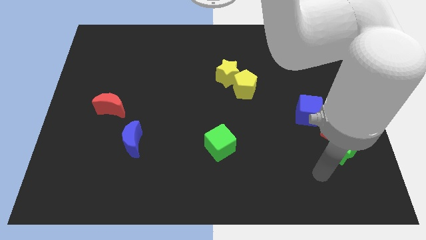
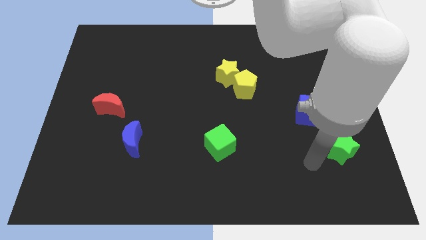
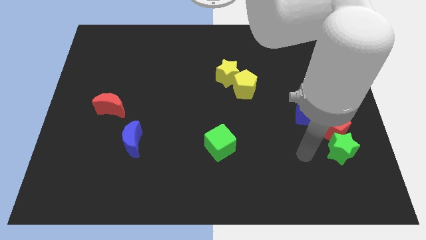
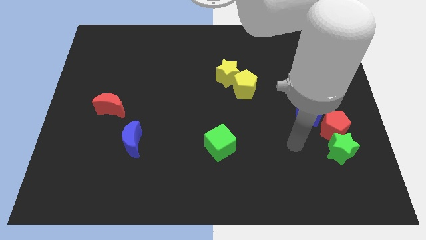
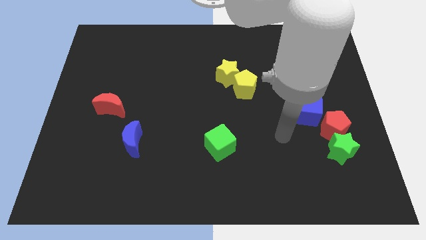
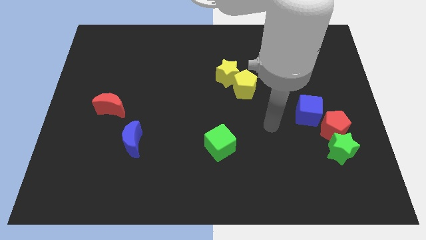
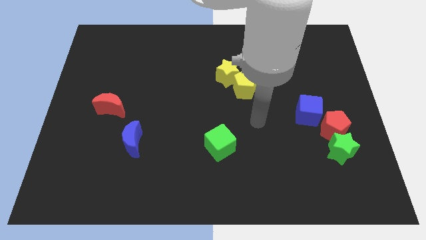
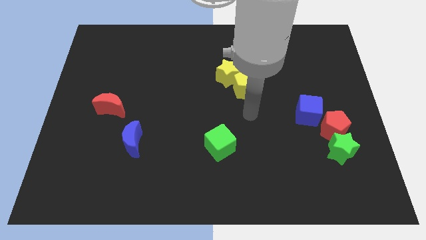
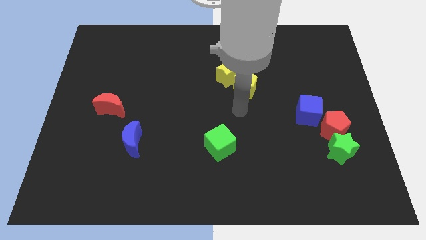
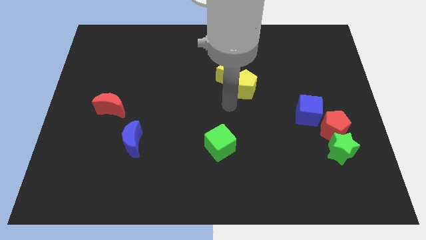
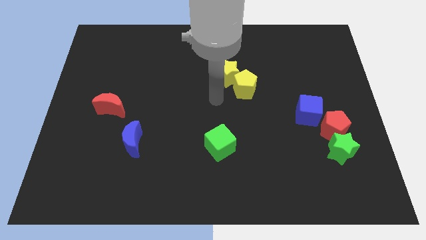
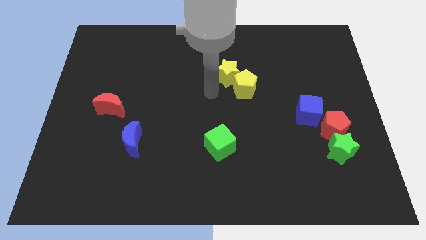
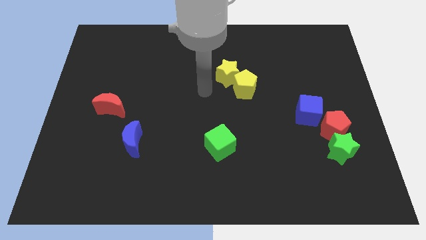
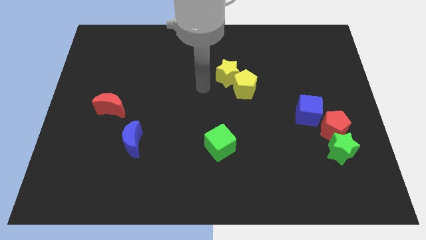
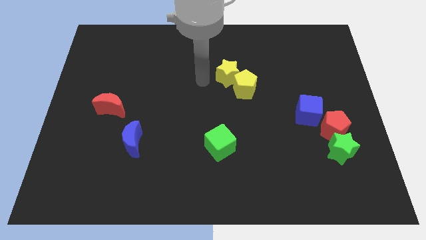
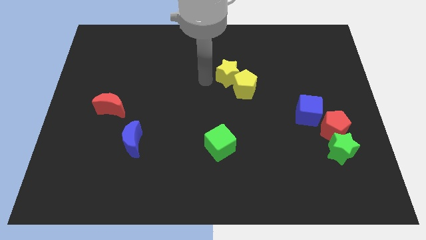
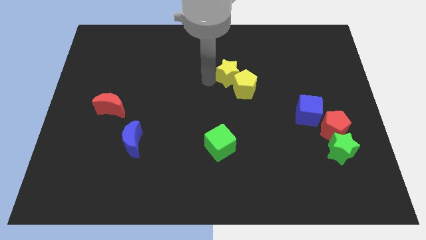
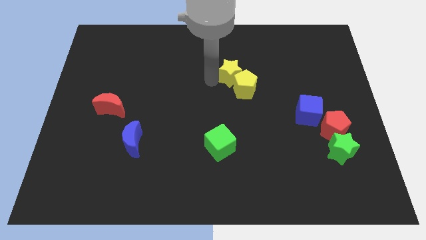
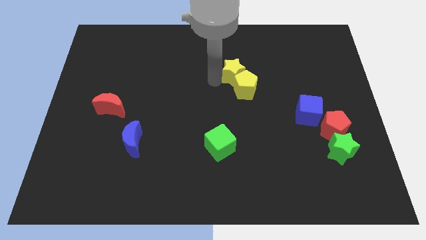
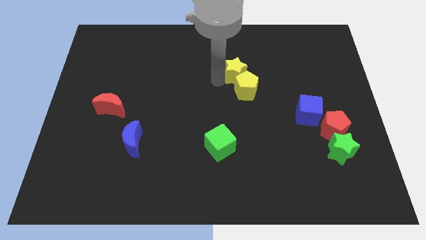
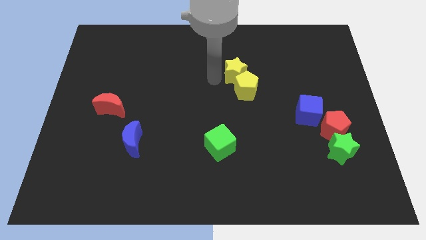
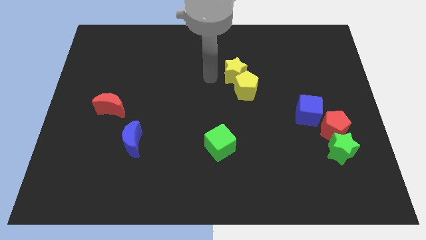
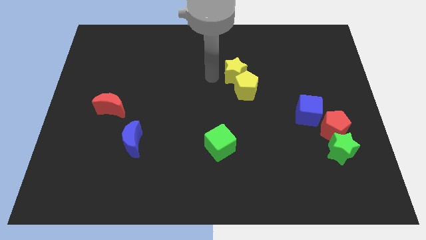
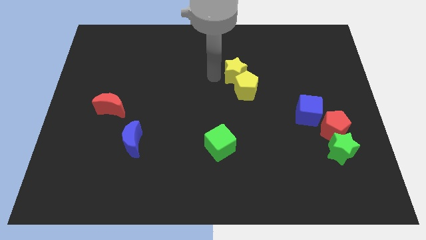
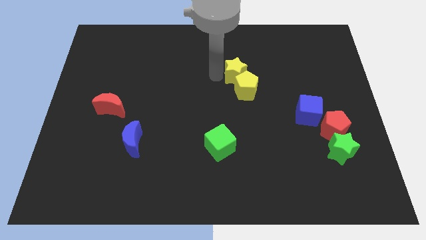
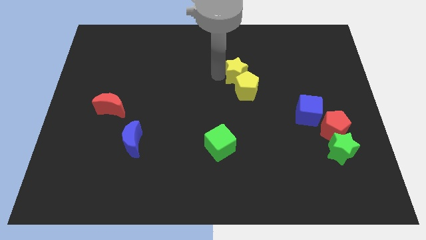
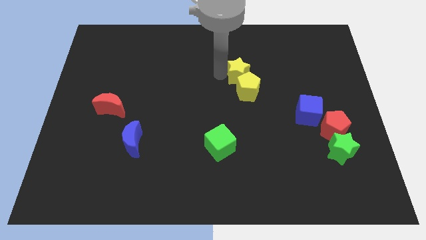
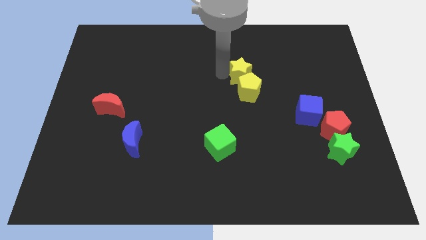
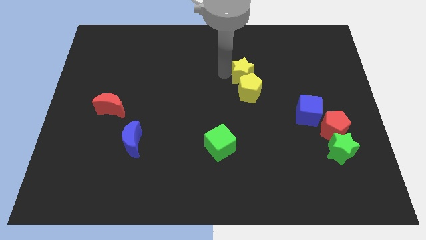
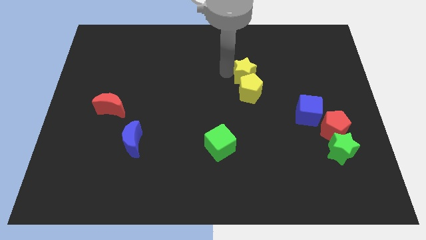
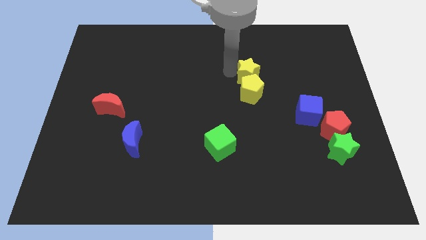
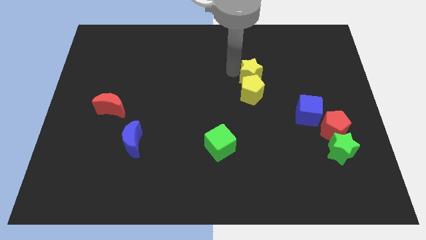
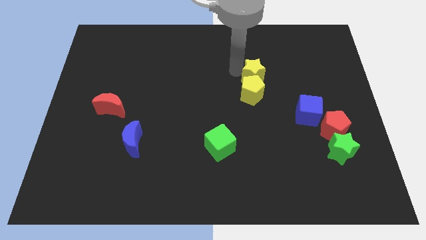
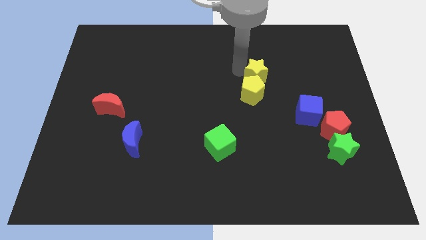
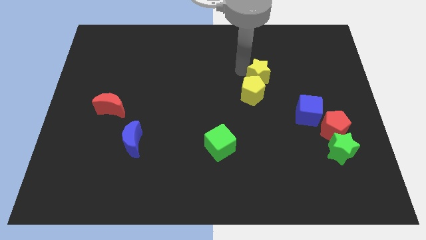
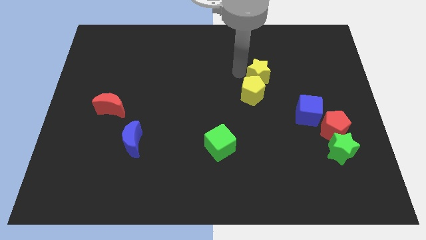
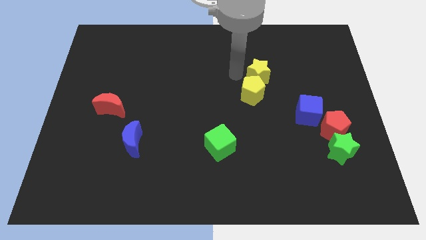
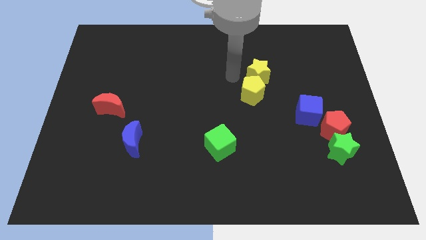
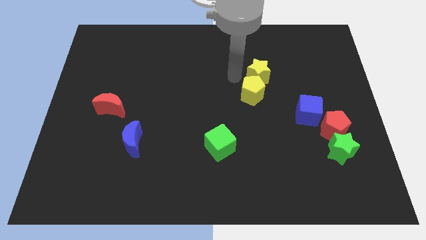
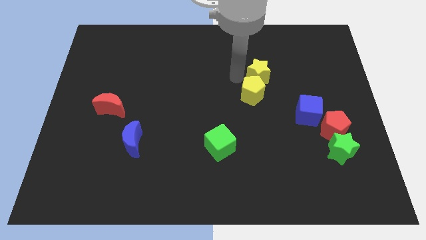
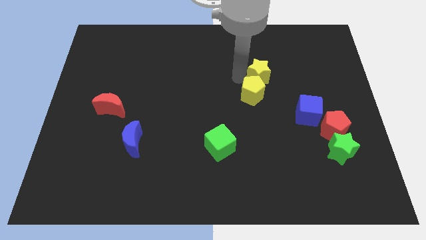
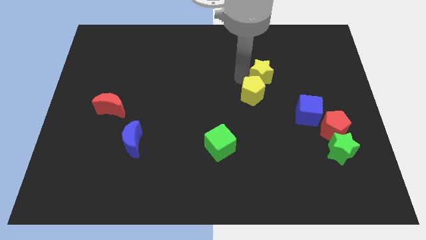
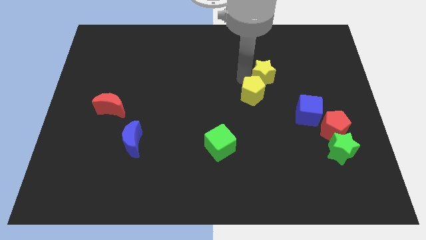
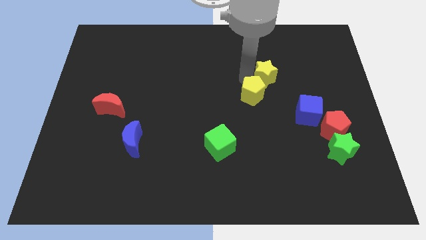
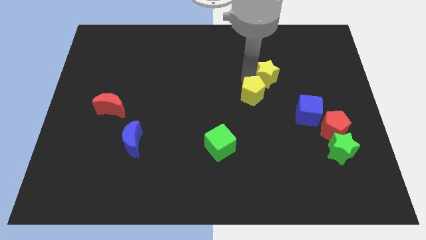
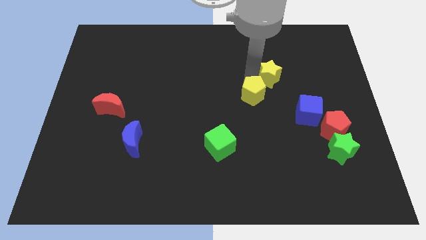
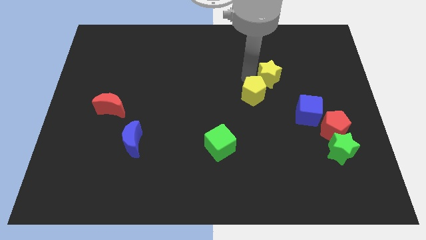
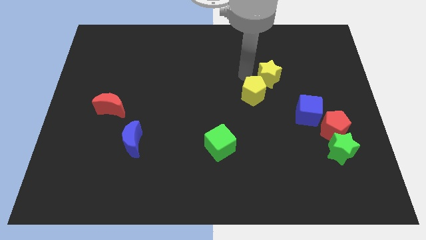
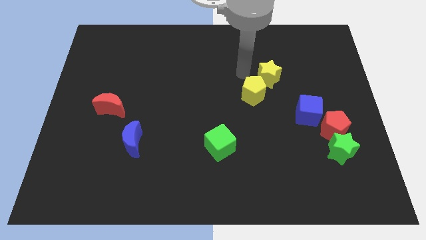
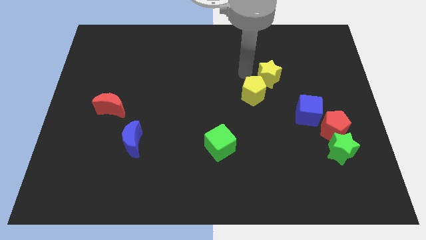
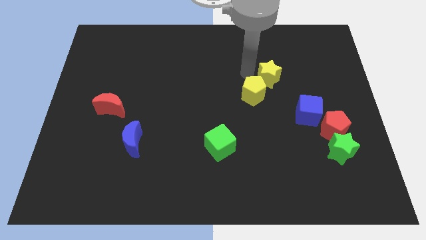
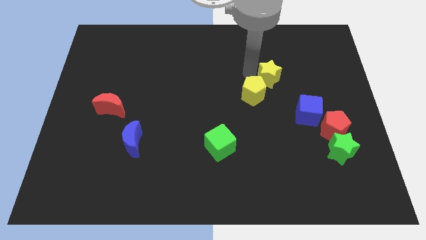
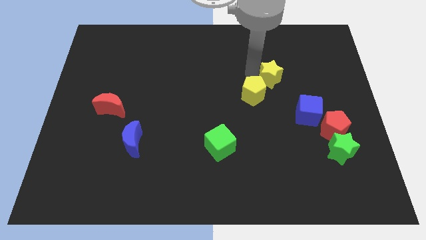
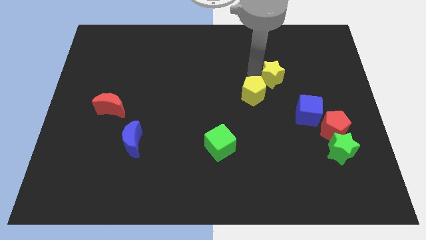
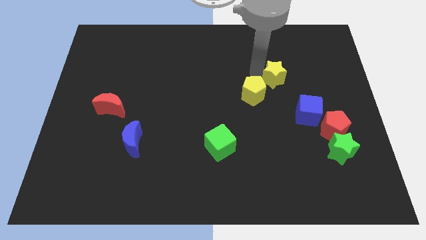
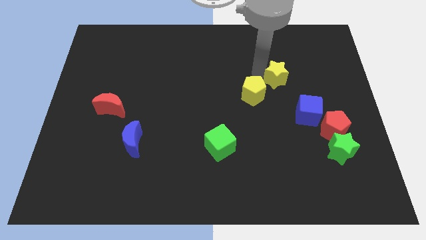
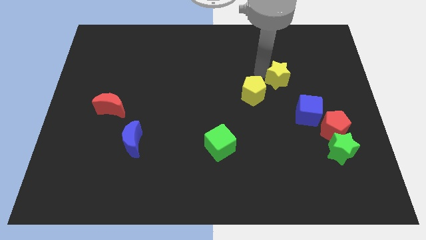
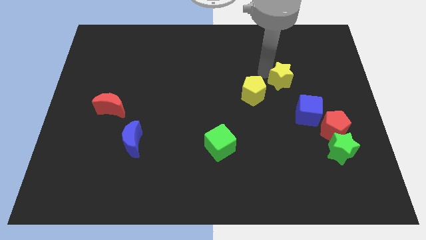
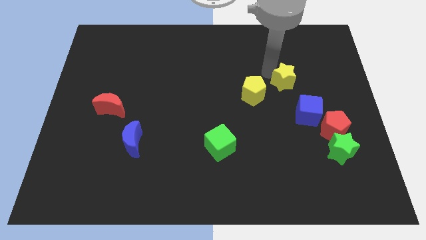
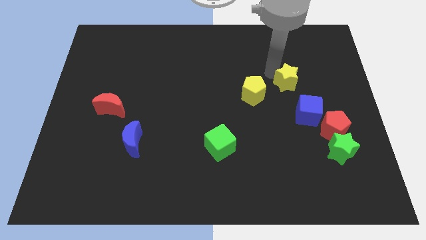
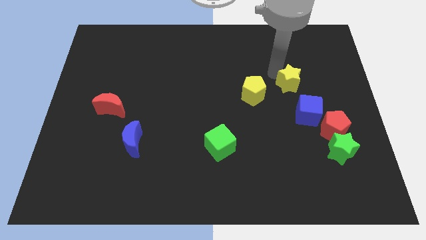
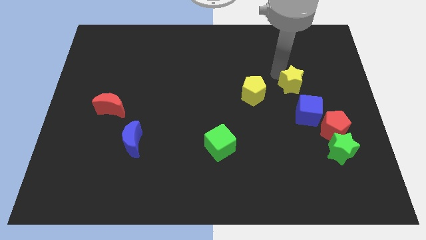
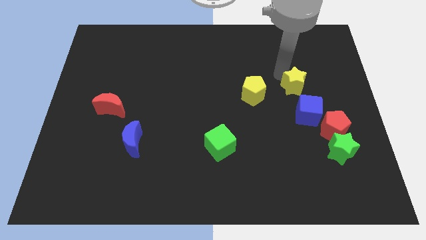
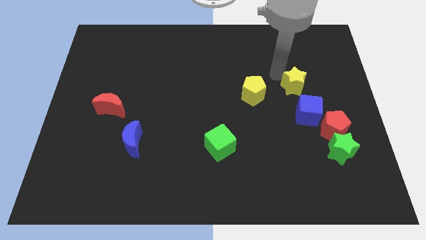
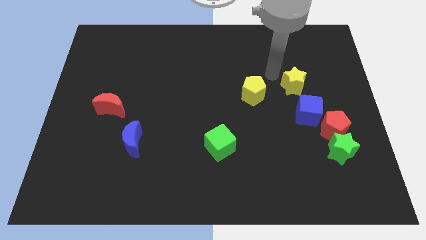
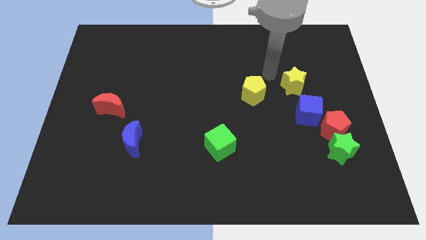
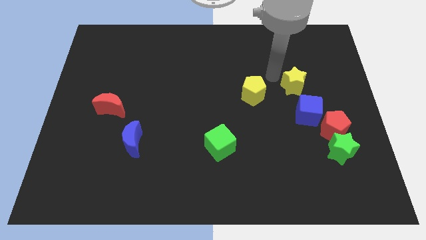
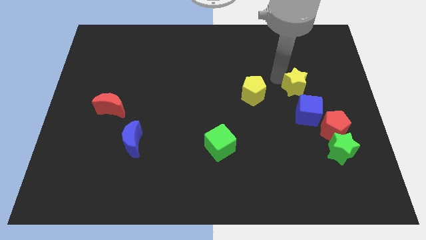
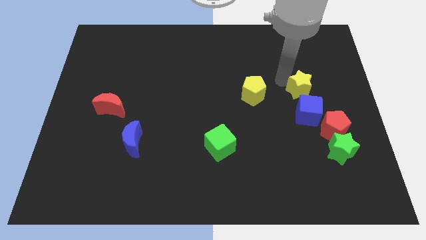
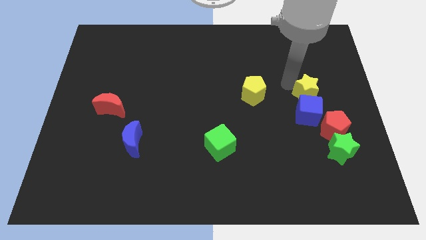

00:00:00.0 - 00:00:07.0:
push the yellow star to the top right side of the blue cube

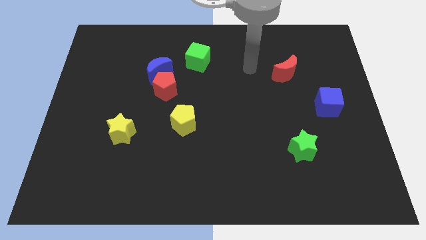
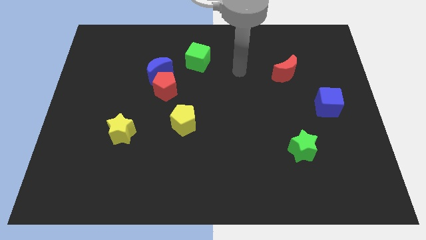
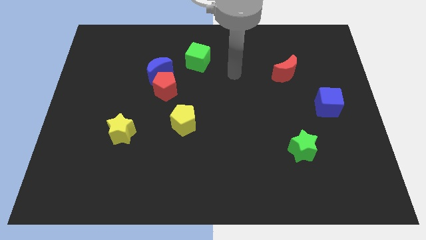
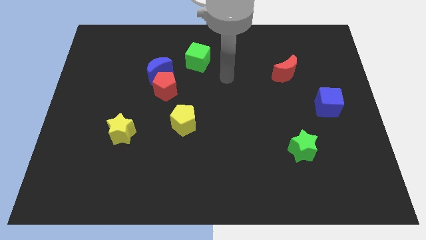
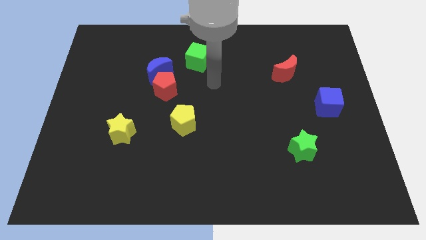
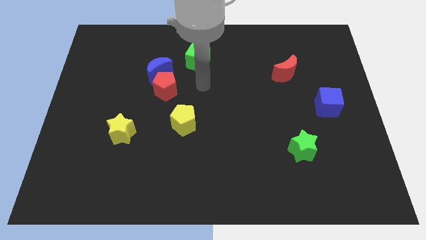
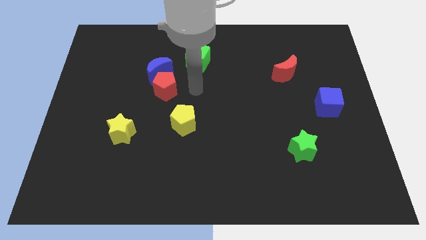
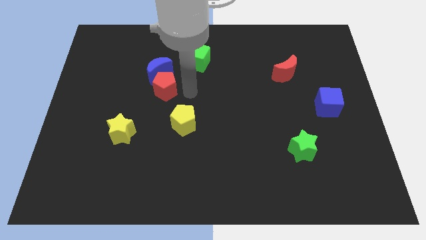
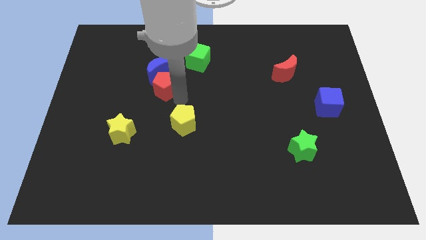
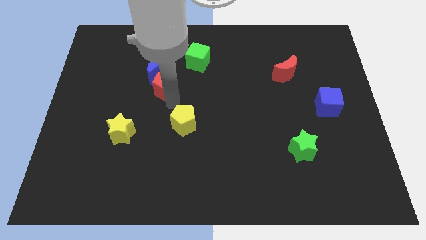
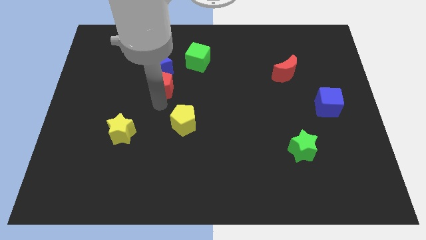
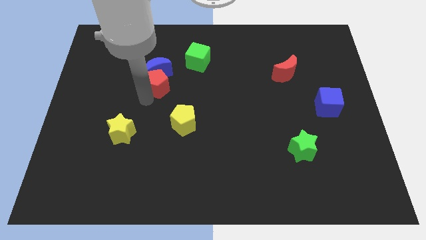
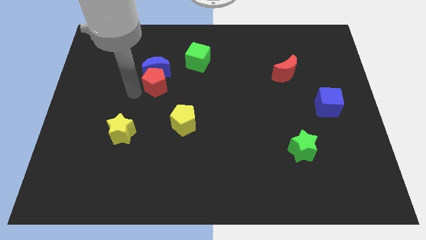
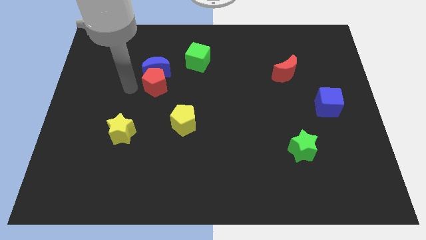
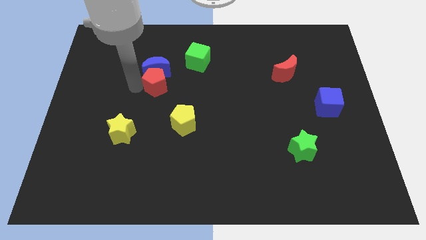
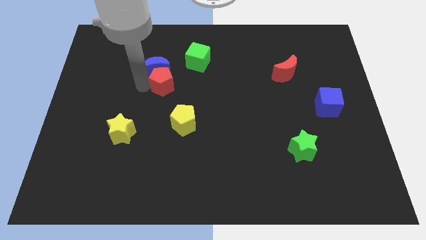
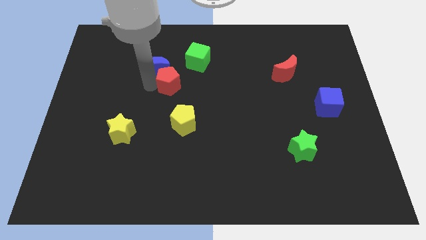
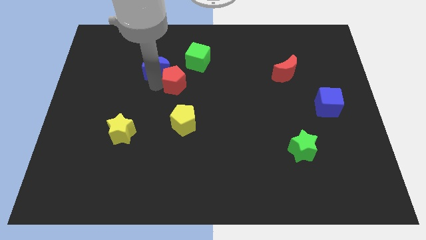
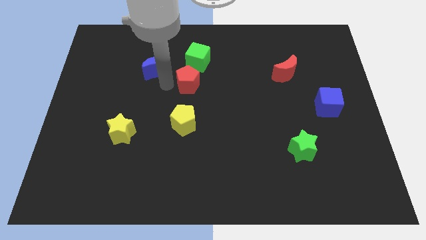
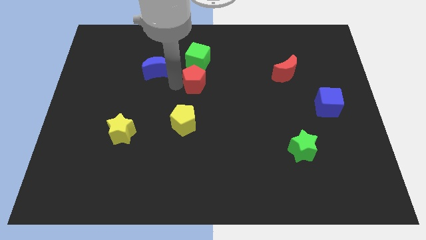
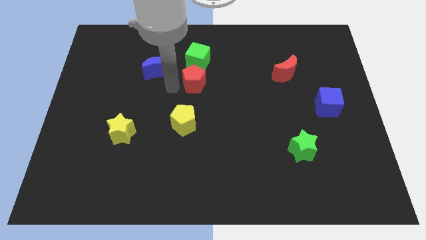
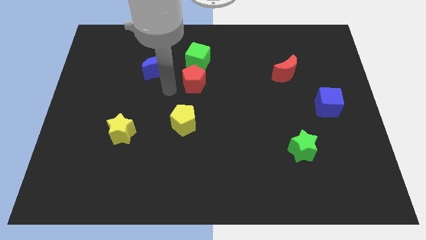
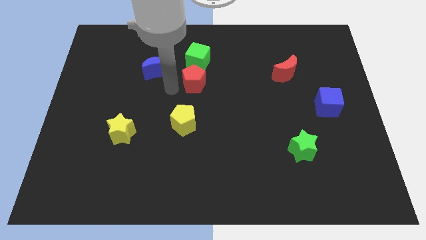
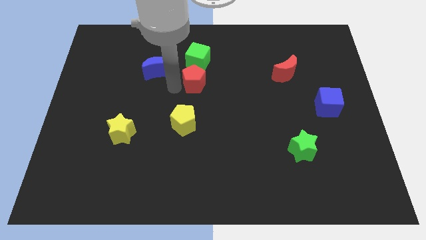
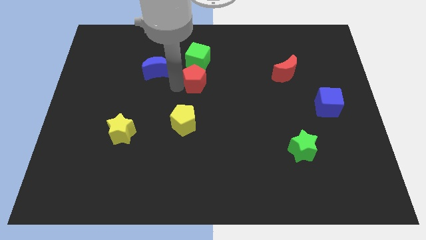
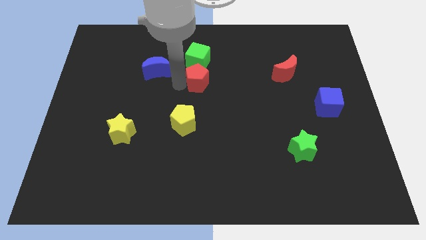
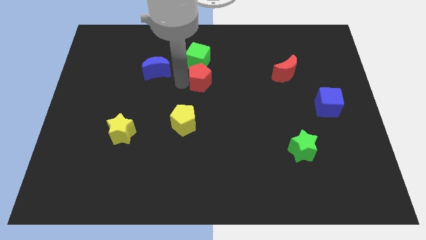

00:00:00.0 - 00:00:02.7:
move the red pentagon diagonally down and to the right of the green cube
